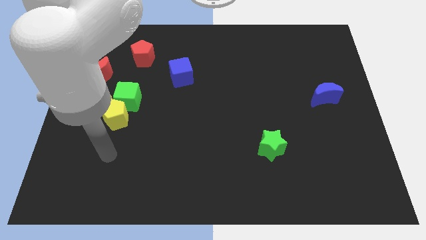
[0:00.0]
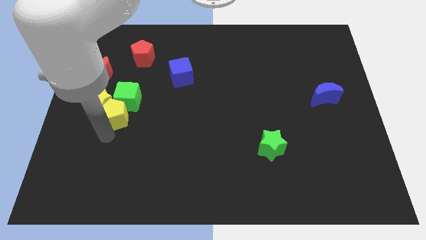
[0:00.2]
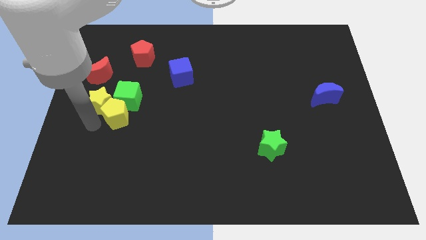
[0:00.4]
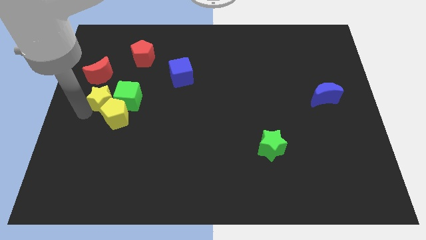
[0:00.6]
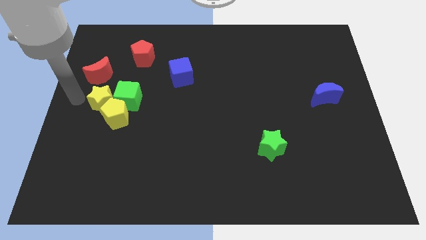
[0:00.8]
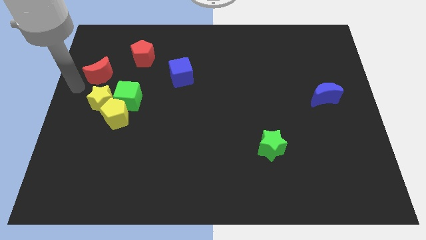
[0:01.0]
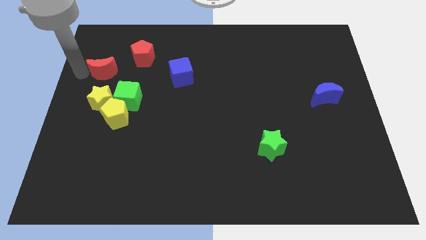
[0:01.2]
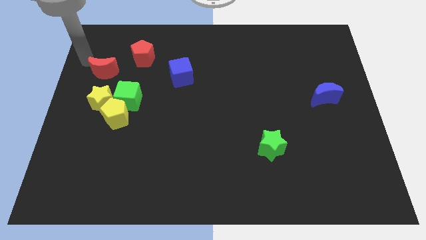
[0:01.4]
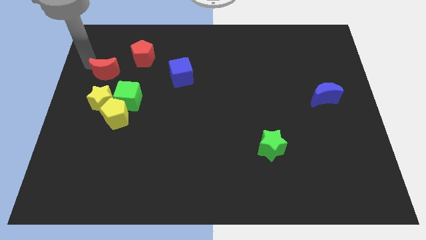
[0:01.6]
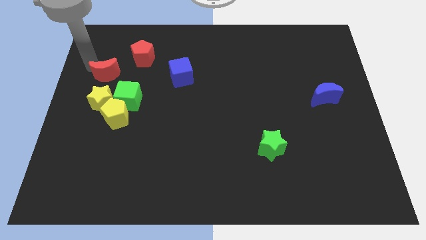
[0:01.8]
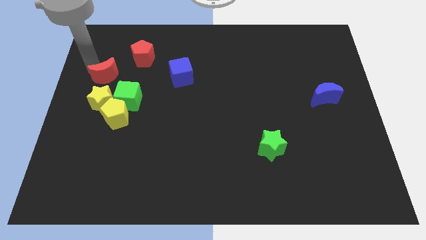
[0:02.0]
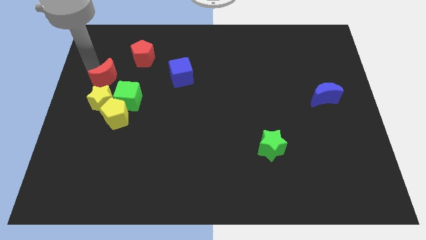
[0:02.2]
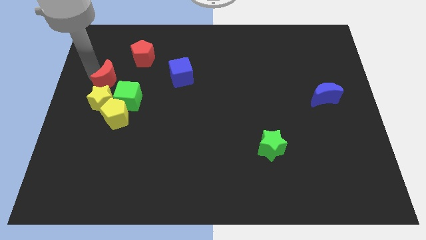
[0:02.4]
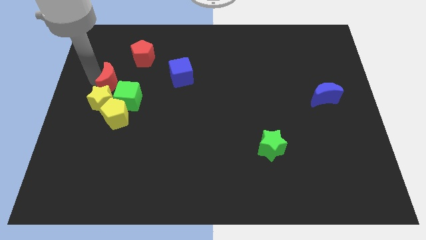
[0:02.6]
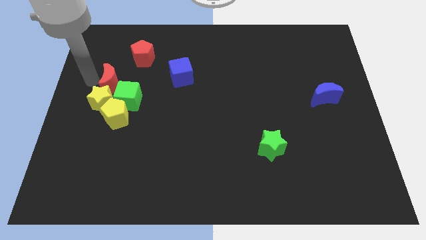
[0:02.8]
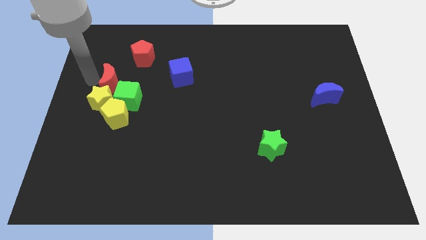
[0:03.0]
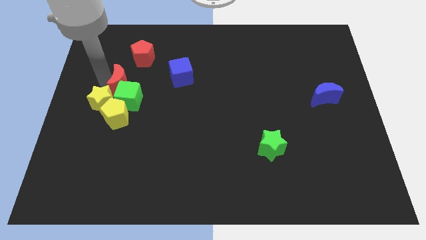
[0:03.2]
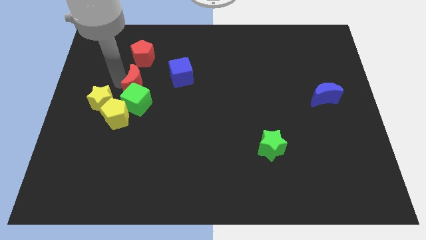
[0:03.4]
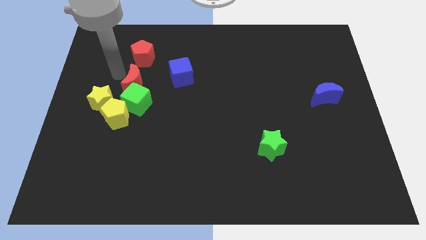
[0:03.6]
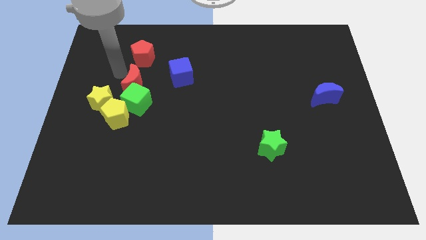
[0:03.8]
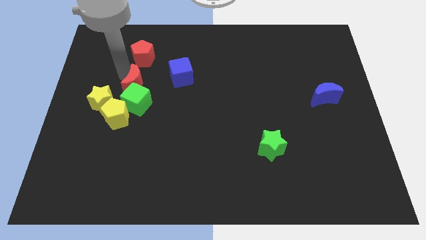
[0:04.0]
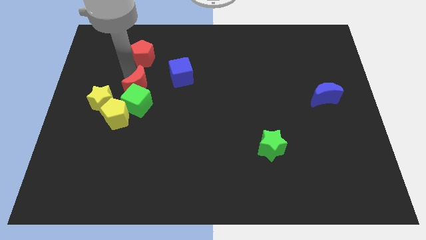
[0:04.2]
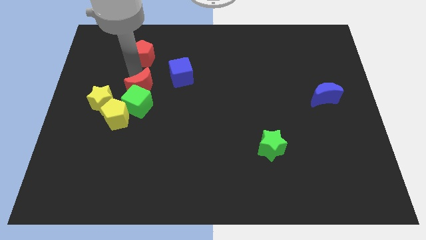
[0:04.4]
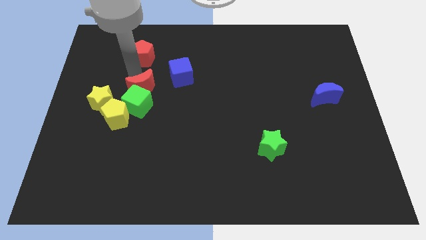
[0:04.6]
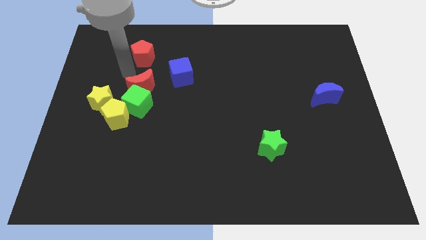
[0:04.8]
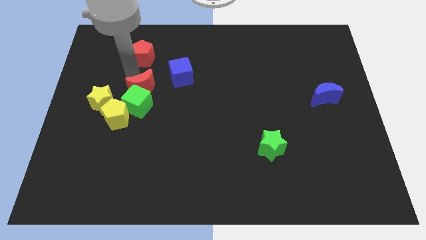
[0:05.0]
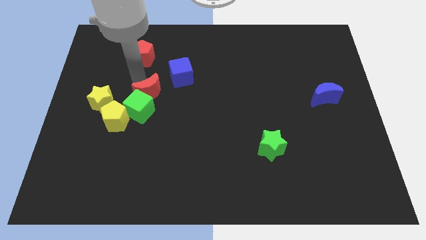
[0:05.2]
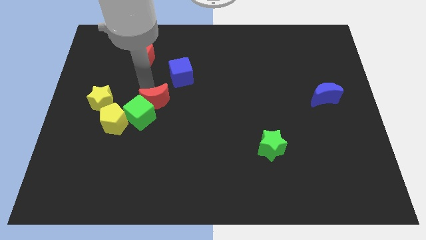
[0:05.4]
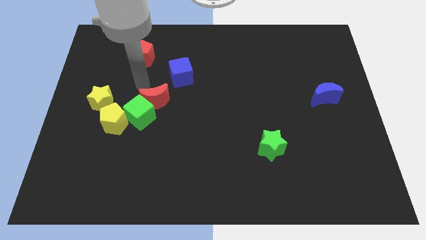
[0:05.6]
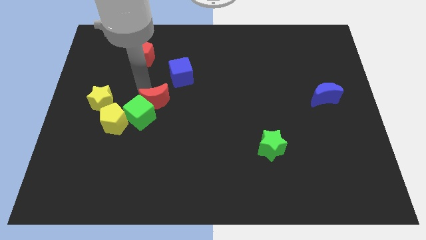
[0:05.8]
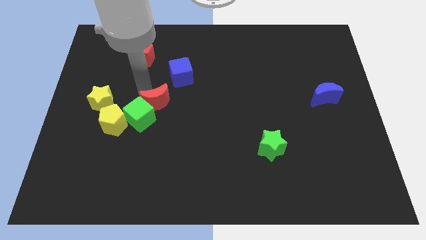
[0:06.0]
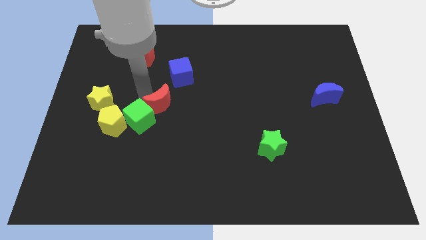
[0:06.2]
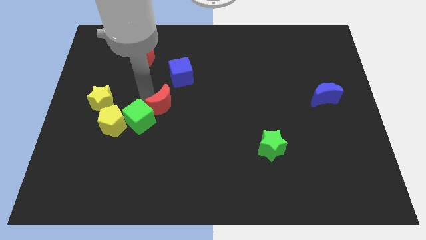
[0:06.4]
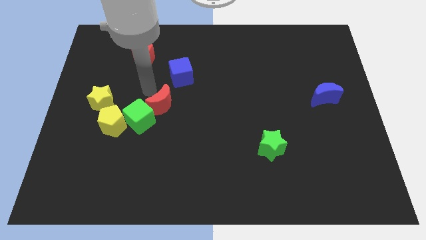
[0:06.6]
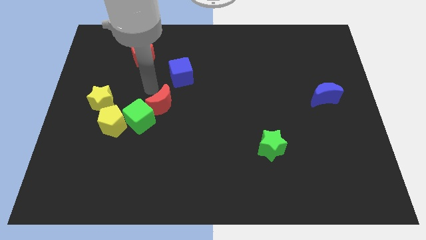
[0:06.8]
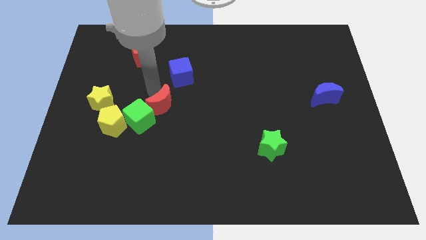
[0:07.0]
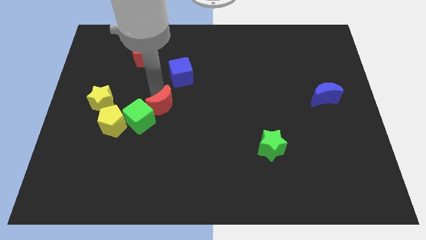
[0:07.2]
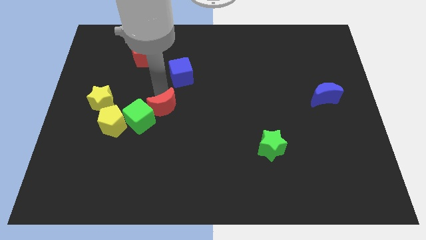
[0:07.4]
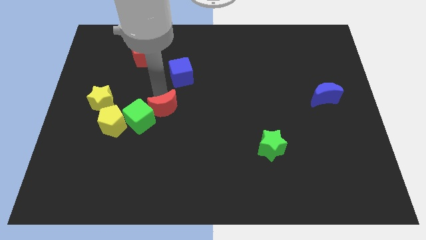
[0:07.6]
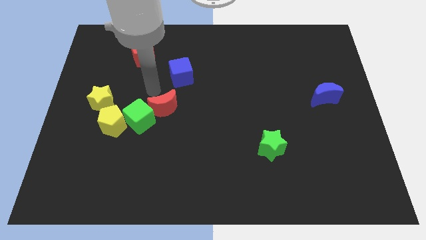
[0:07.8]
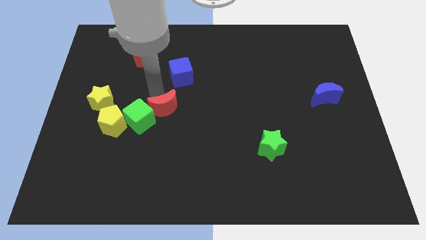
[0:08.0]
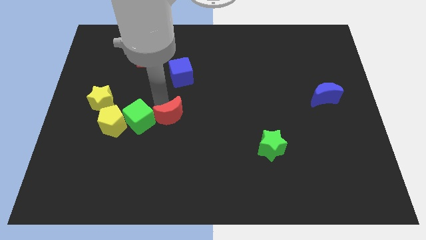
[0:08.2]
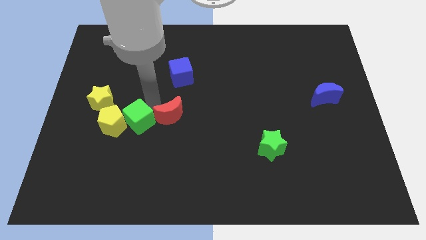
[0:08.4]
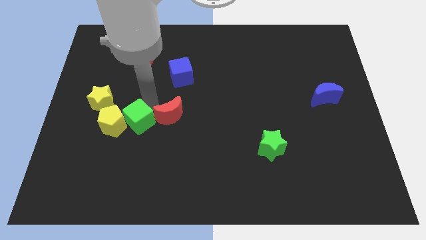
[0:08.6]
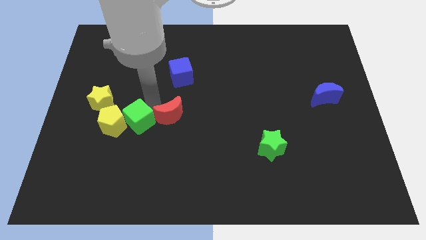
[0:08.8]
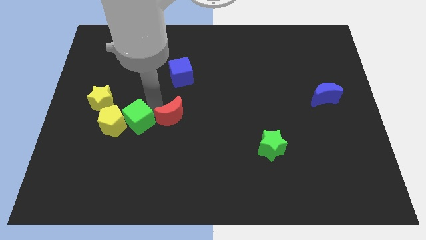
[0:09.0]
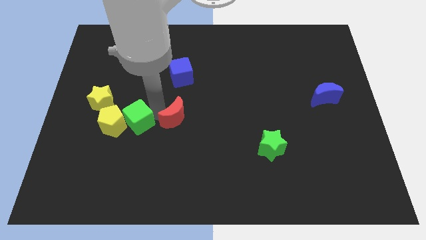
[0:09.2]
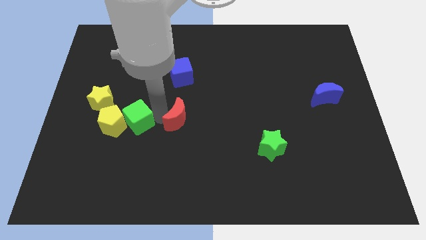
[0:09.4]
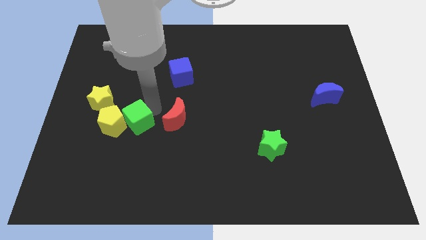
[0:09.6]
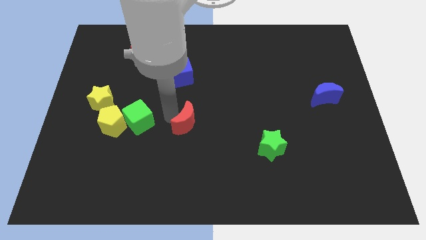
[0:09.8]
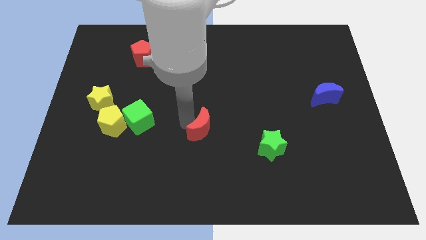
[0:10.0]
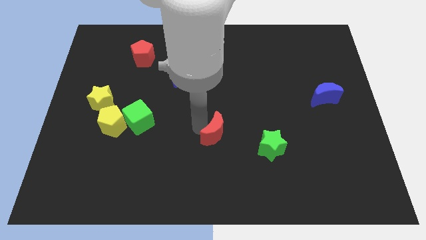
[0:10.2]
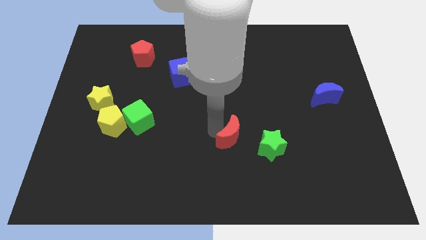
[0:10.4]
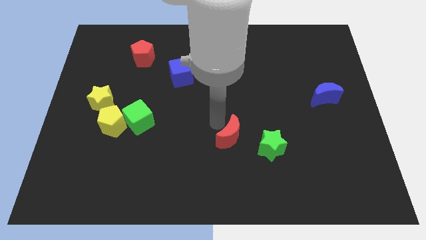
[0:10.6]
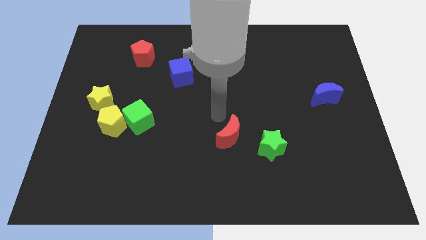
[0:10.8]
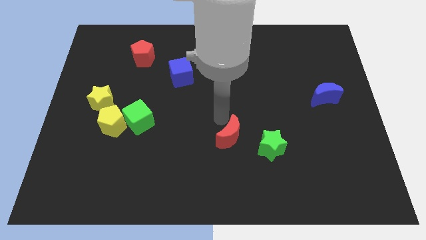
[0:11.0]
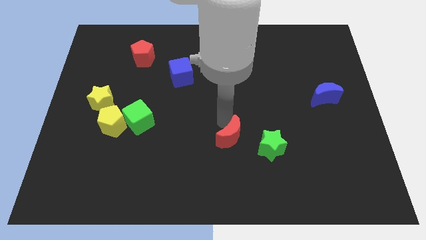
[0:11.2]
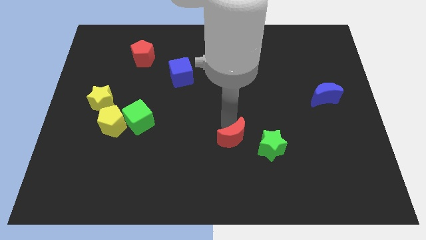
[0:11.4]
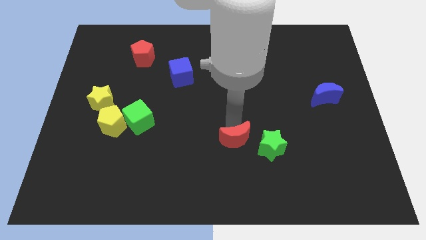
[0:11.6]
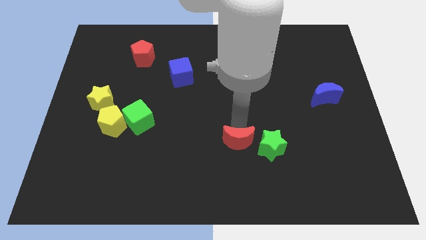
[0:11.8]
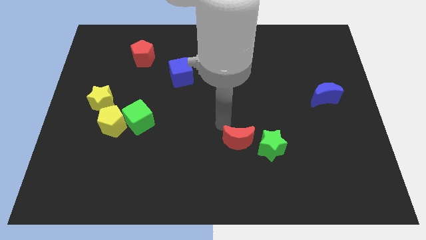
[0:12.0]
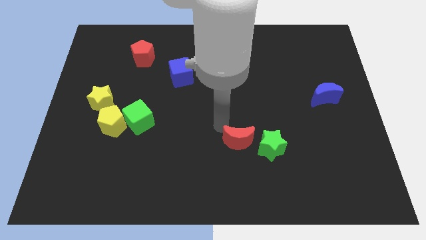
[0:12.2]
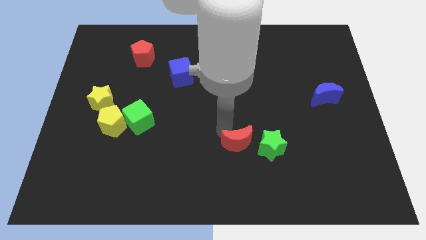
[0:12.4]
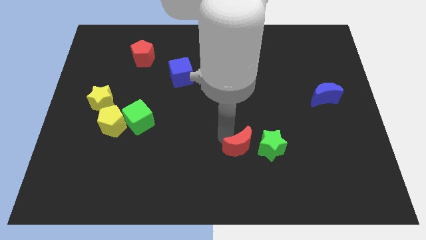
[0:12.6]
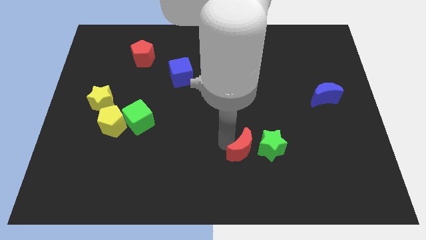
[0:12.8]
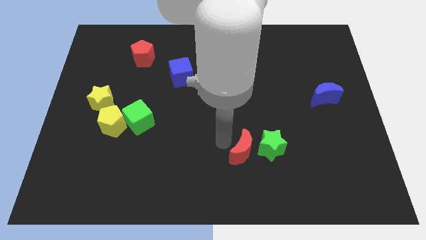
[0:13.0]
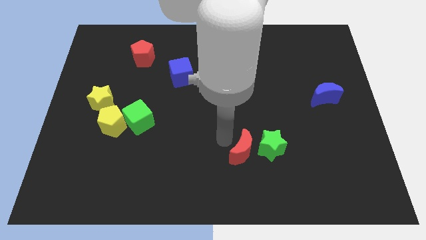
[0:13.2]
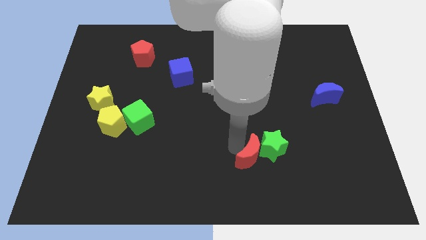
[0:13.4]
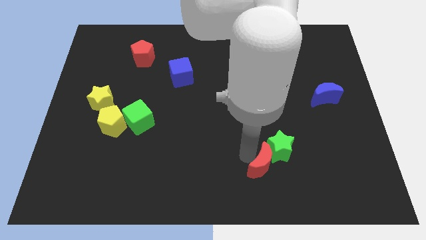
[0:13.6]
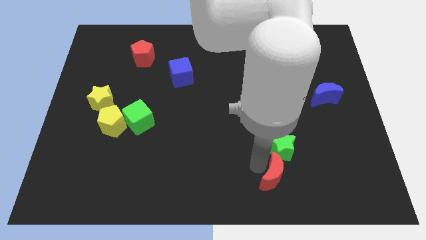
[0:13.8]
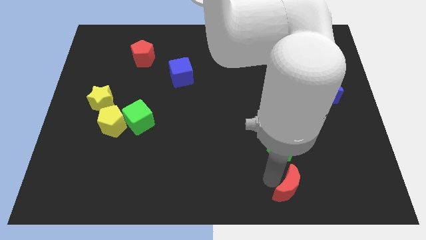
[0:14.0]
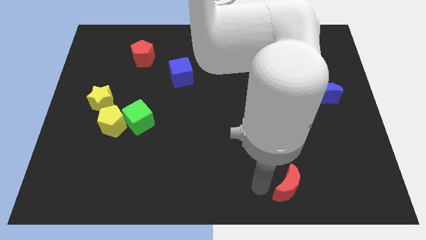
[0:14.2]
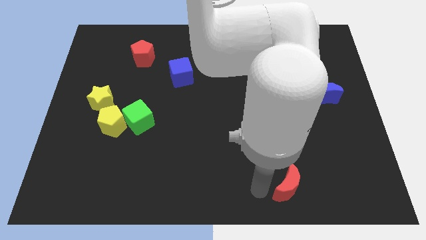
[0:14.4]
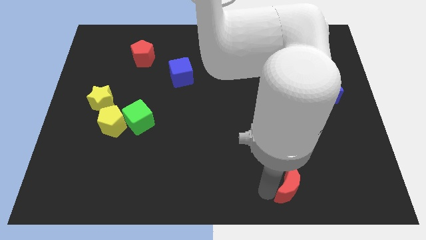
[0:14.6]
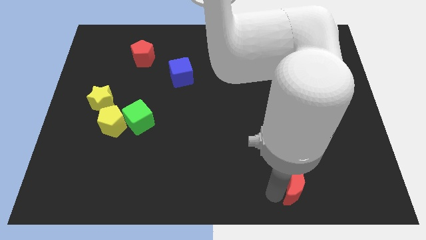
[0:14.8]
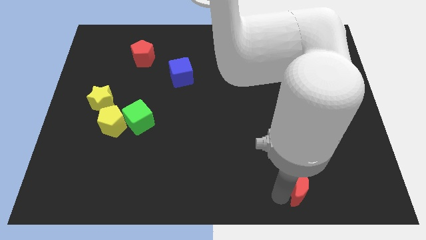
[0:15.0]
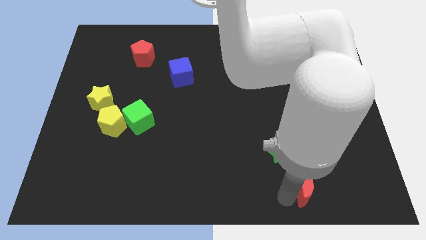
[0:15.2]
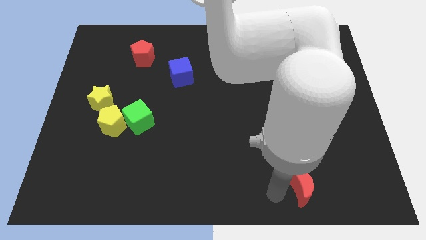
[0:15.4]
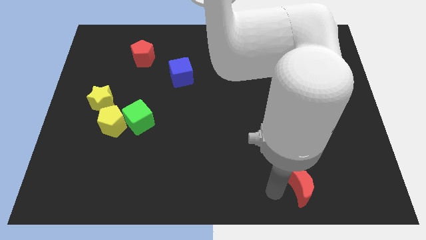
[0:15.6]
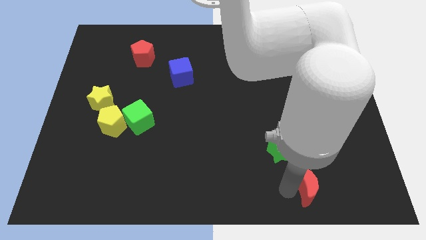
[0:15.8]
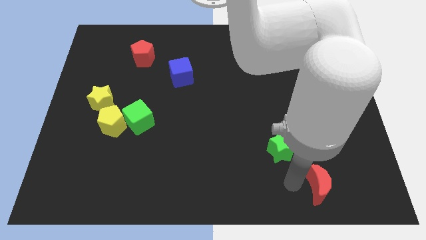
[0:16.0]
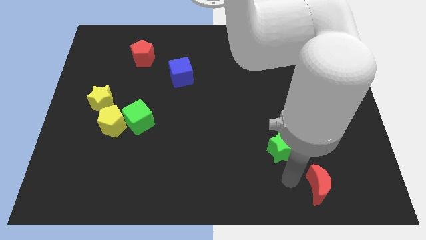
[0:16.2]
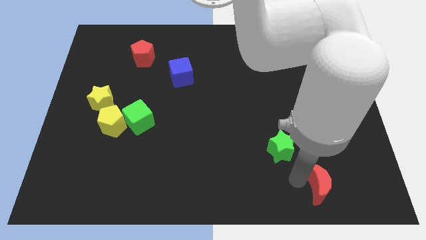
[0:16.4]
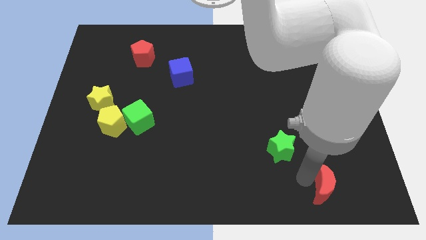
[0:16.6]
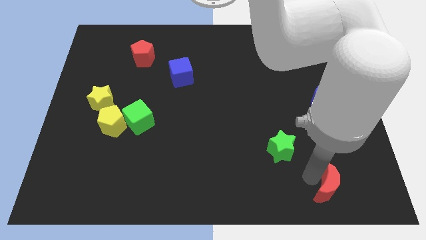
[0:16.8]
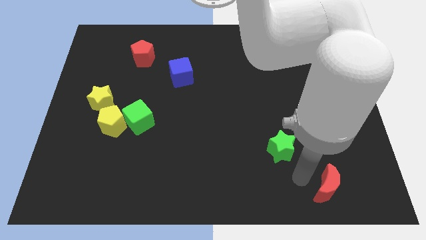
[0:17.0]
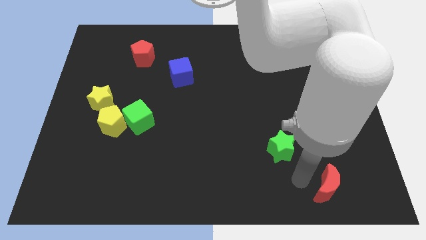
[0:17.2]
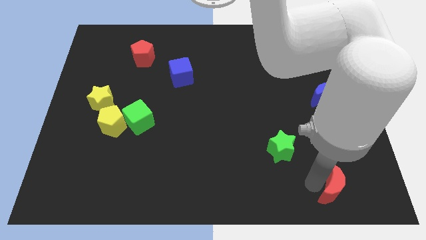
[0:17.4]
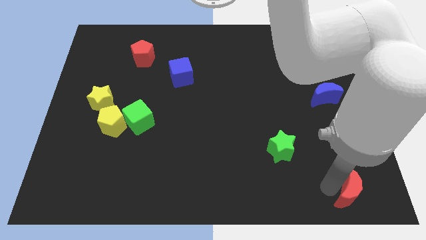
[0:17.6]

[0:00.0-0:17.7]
slide the red moon to the bottom right corner
